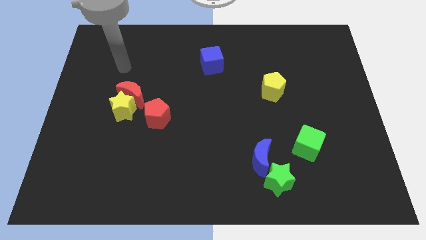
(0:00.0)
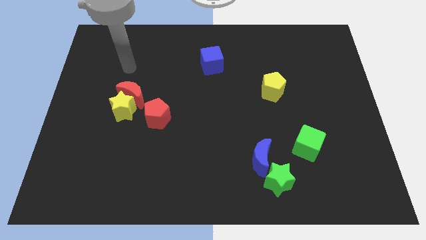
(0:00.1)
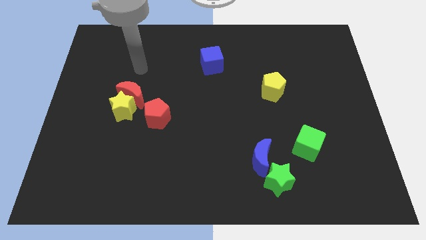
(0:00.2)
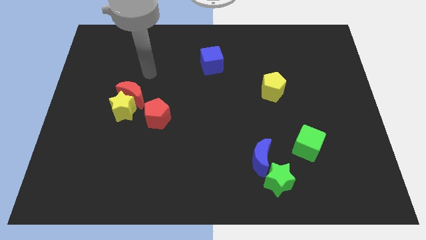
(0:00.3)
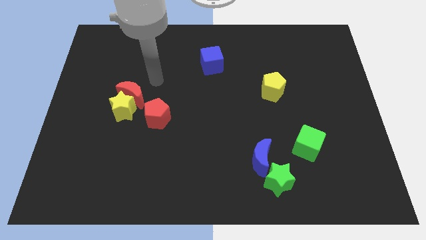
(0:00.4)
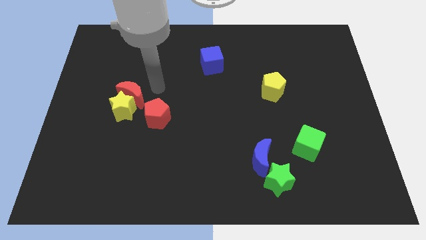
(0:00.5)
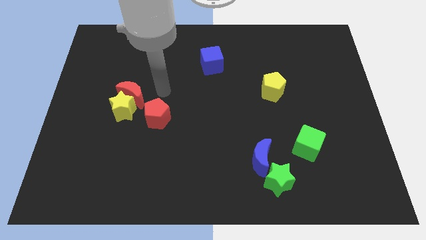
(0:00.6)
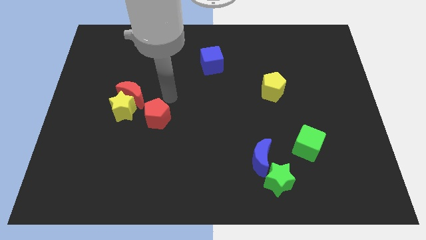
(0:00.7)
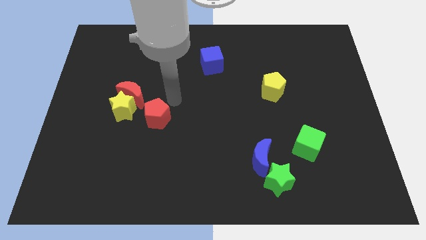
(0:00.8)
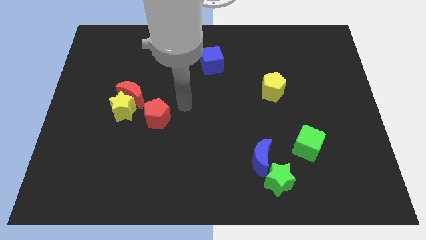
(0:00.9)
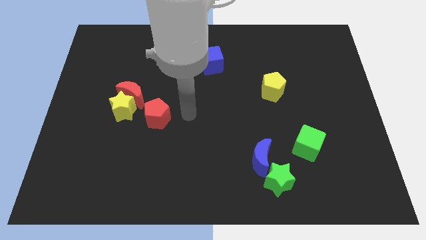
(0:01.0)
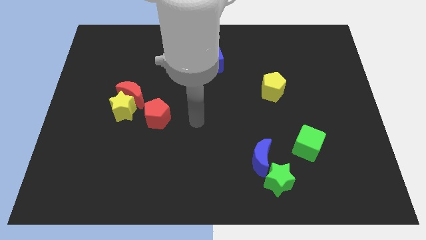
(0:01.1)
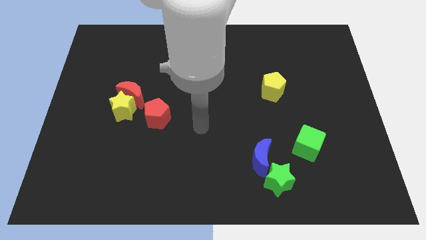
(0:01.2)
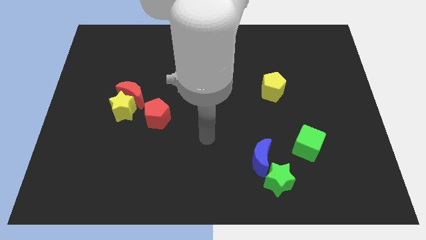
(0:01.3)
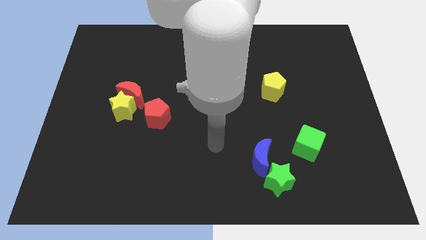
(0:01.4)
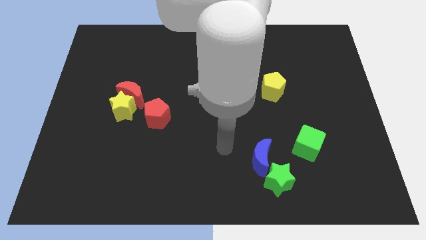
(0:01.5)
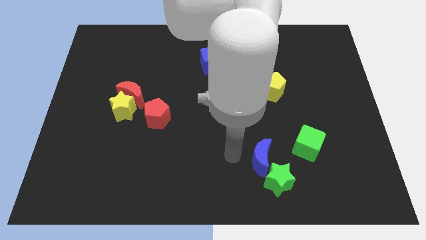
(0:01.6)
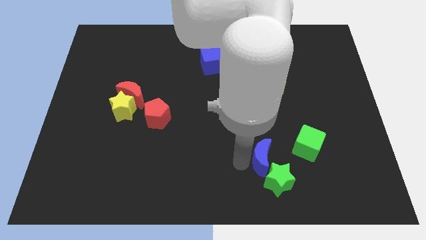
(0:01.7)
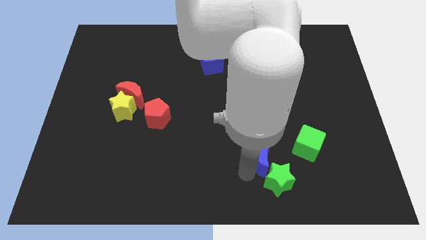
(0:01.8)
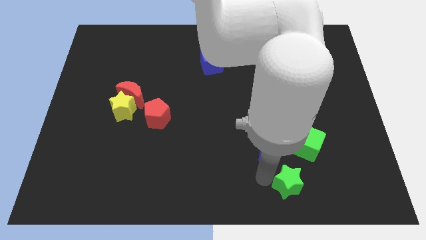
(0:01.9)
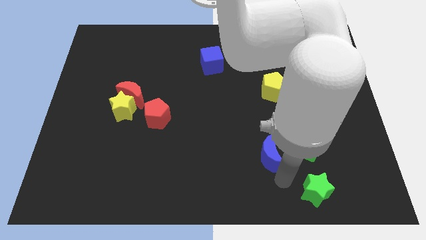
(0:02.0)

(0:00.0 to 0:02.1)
pull the blue moon apart from the green star

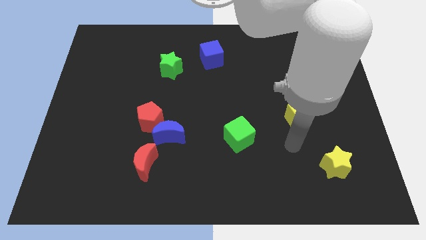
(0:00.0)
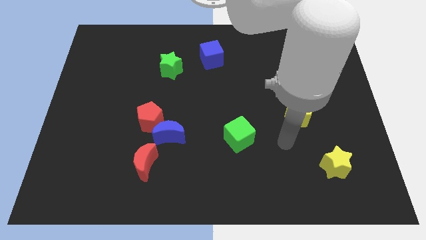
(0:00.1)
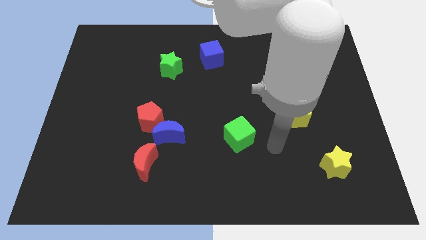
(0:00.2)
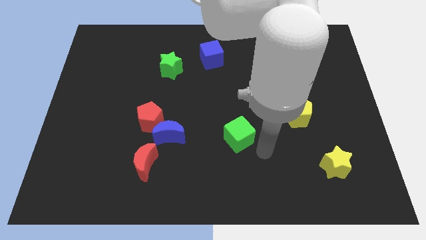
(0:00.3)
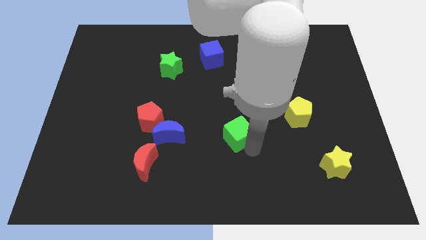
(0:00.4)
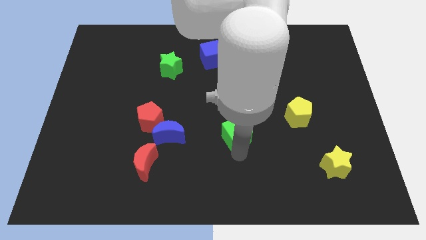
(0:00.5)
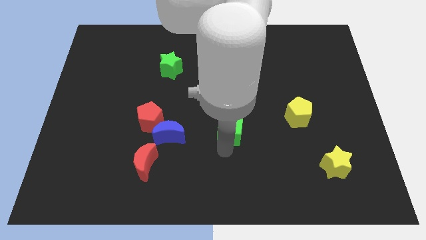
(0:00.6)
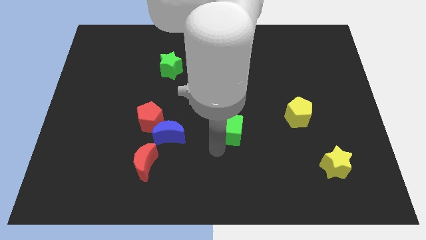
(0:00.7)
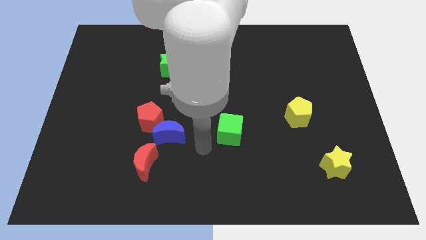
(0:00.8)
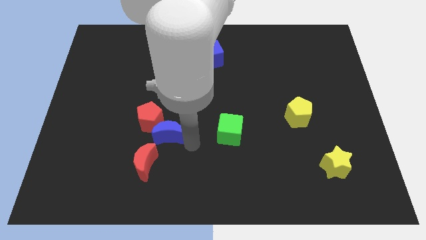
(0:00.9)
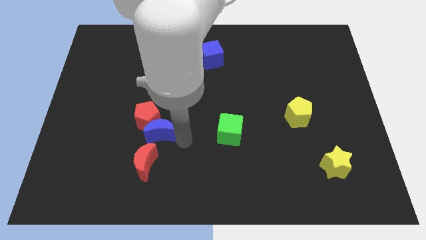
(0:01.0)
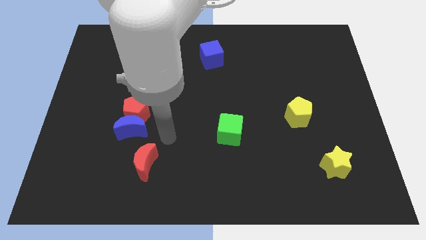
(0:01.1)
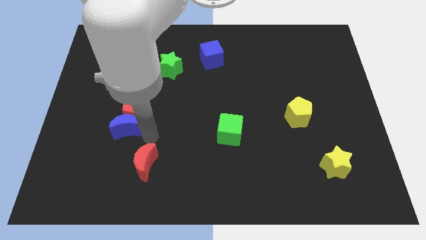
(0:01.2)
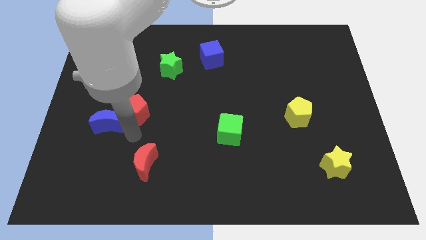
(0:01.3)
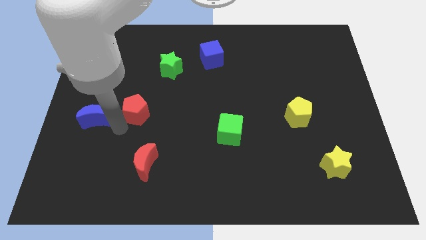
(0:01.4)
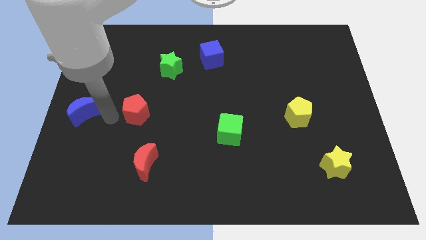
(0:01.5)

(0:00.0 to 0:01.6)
pull the red pentagon apart from the blue moon

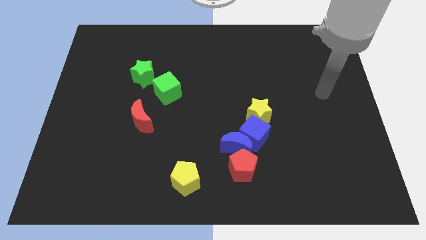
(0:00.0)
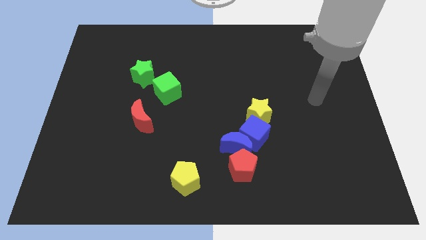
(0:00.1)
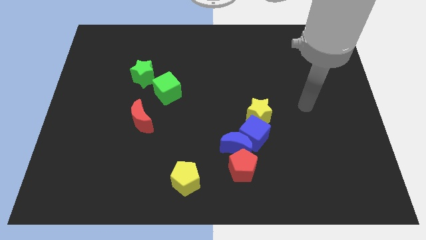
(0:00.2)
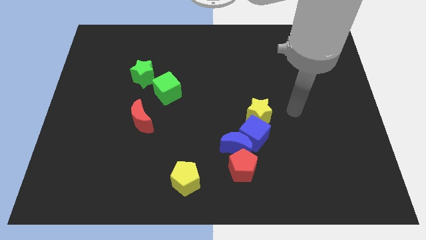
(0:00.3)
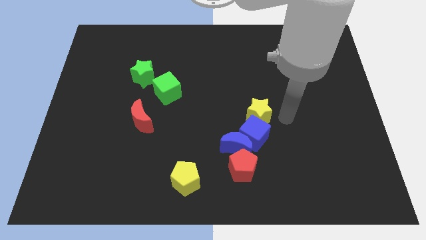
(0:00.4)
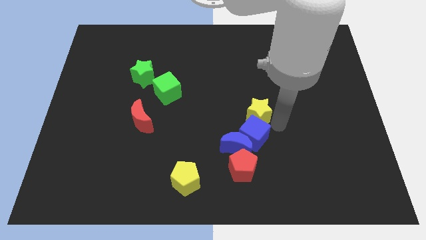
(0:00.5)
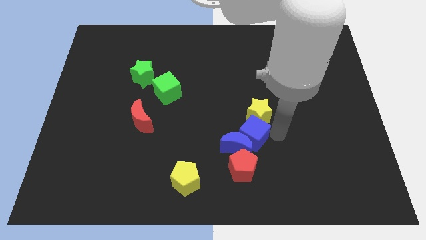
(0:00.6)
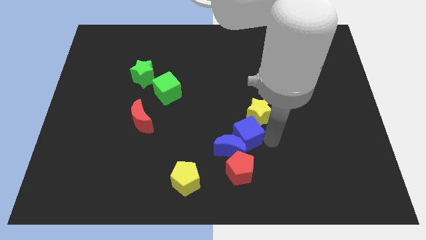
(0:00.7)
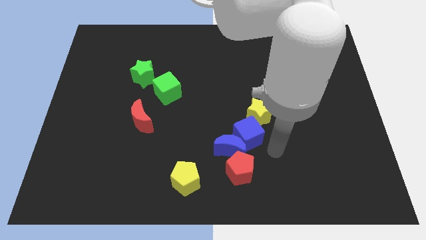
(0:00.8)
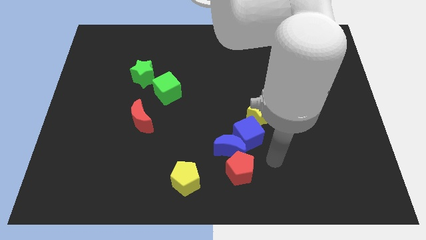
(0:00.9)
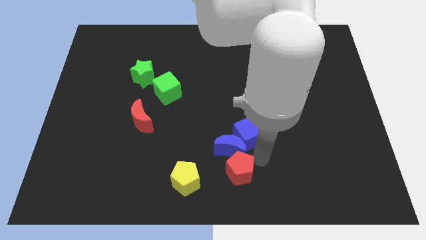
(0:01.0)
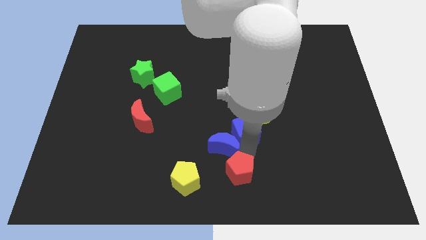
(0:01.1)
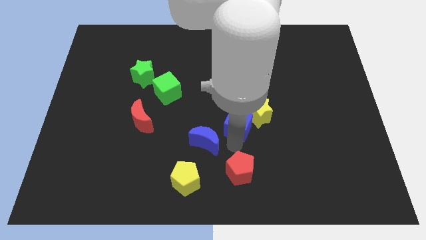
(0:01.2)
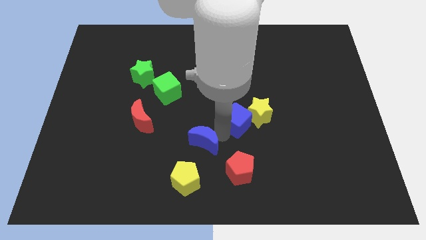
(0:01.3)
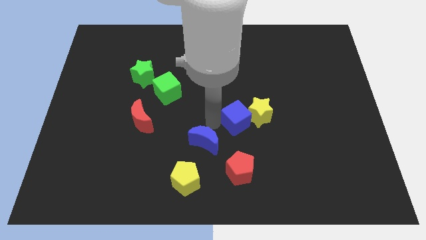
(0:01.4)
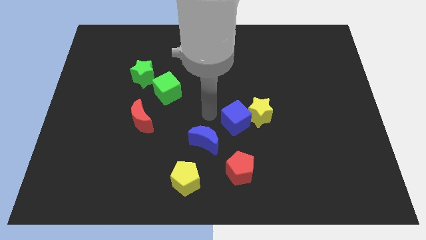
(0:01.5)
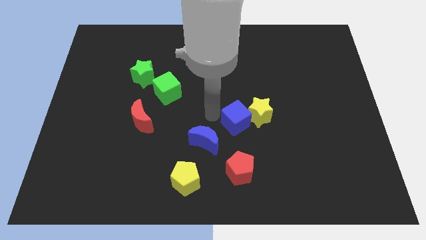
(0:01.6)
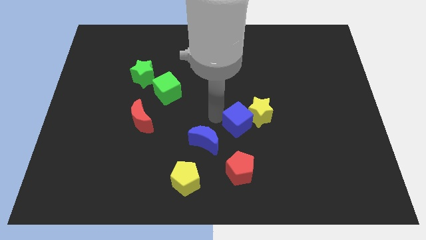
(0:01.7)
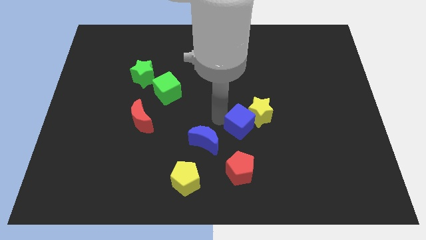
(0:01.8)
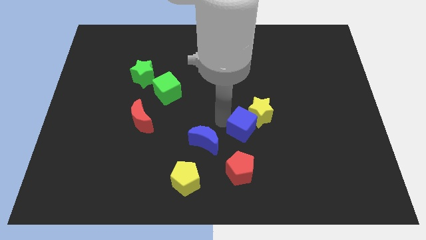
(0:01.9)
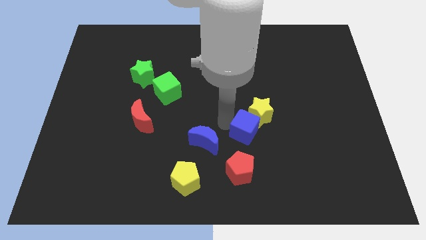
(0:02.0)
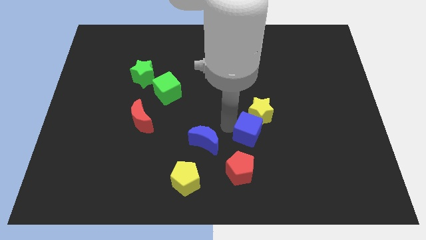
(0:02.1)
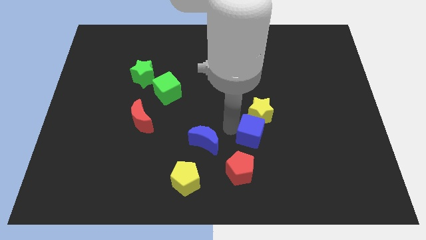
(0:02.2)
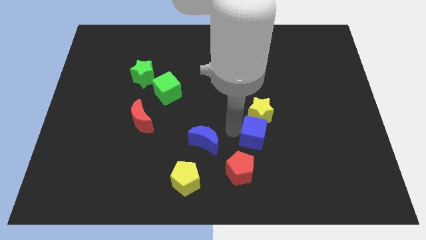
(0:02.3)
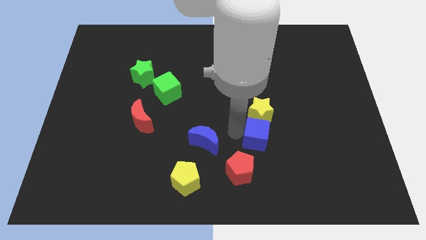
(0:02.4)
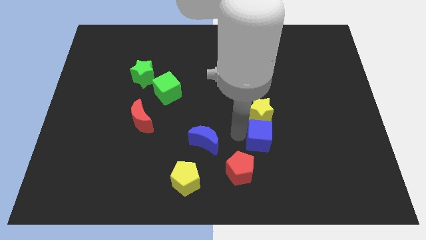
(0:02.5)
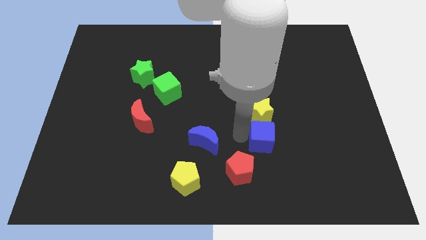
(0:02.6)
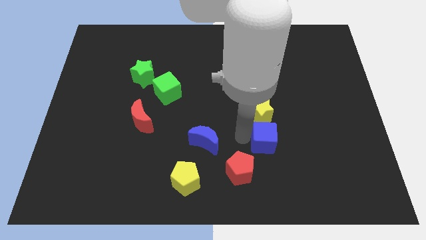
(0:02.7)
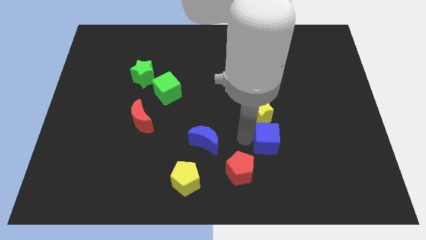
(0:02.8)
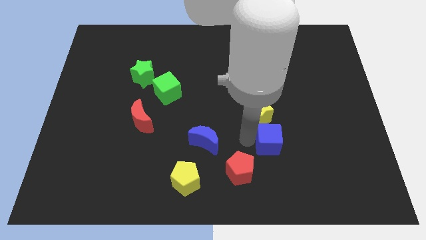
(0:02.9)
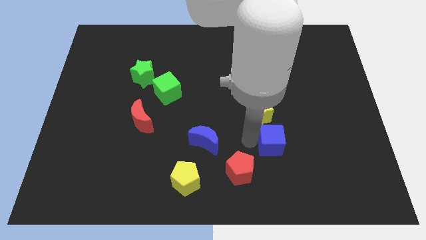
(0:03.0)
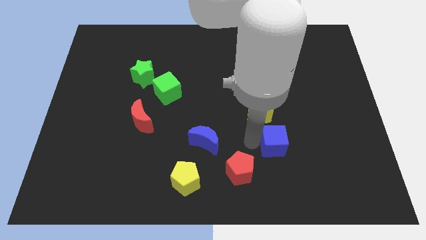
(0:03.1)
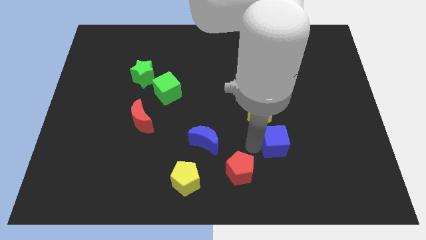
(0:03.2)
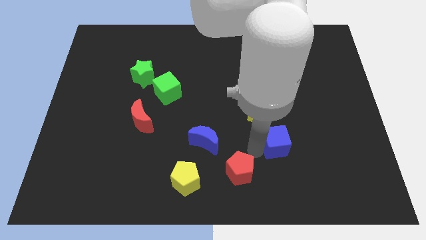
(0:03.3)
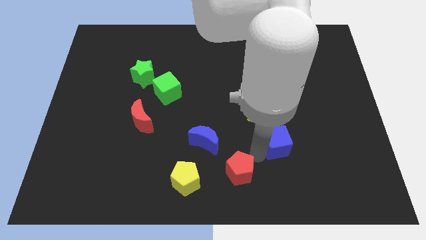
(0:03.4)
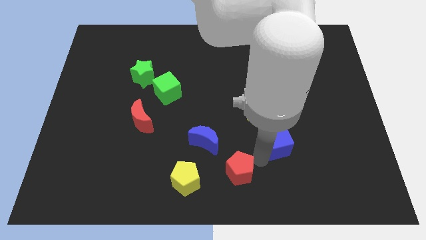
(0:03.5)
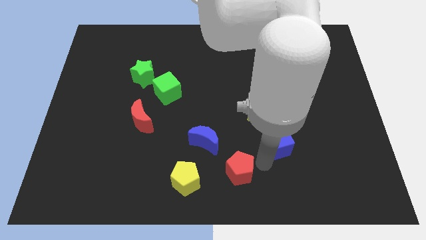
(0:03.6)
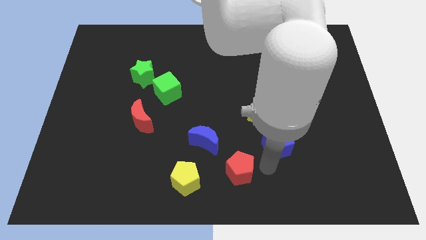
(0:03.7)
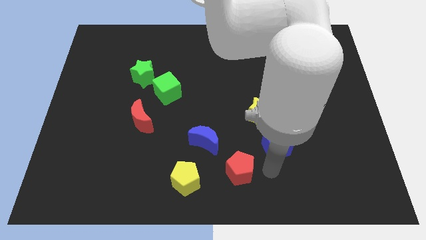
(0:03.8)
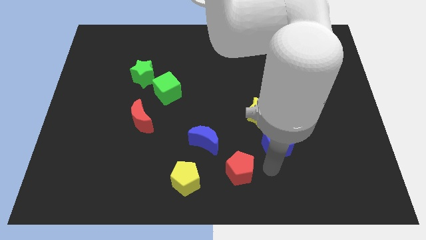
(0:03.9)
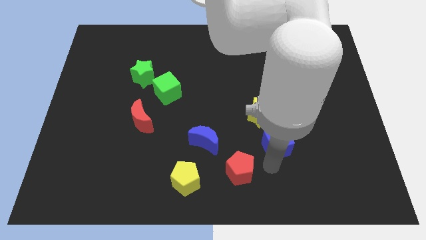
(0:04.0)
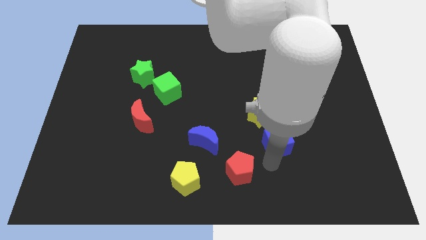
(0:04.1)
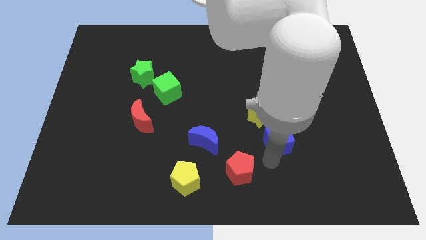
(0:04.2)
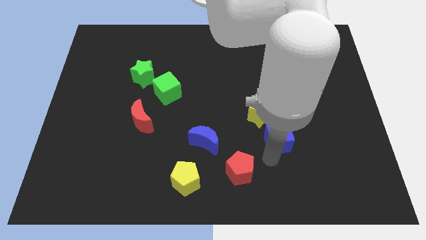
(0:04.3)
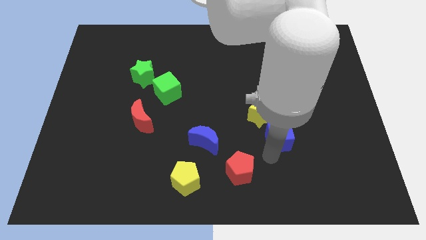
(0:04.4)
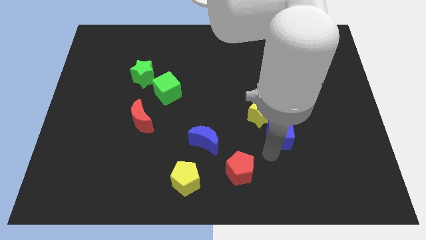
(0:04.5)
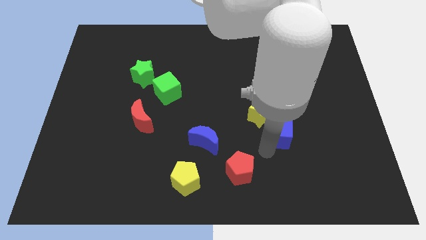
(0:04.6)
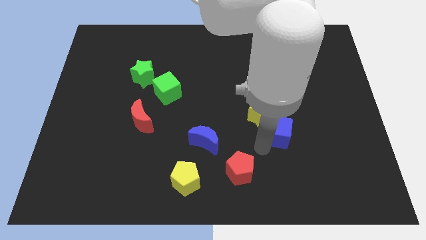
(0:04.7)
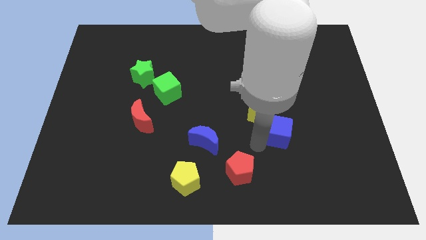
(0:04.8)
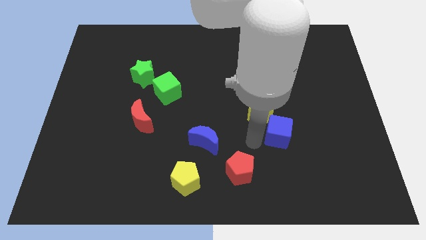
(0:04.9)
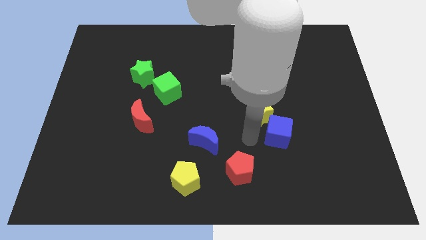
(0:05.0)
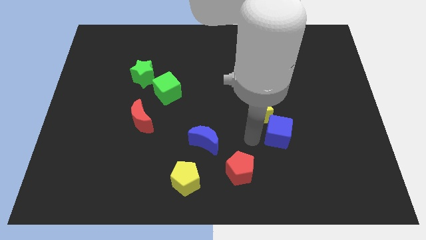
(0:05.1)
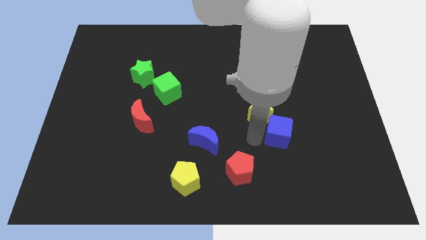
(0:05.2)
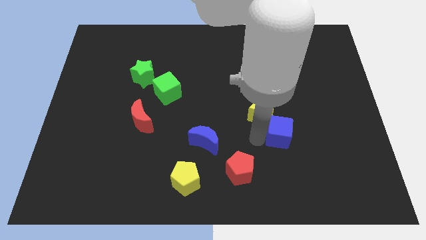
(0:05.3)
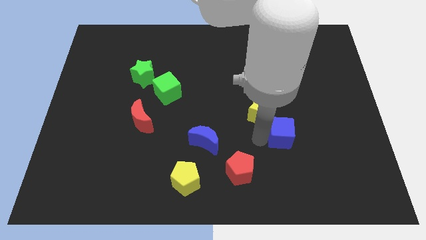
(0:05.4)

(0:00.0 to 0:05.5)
move the blue cube away from the blue moon, yellow star, and red pentagon

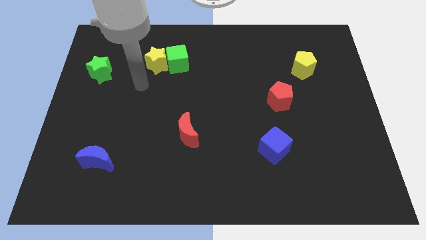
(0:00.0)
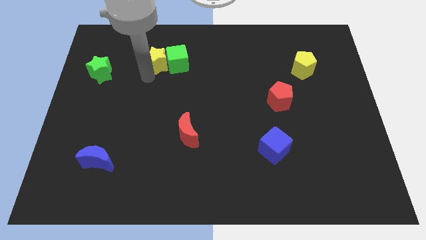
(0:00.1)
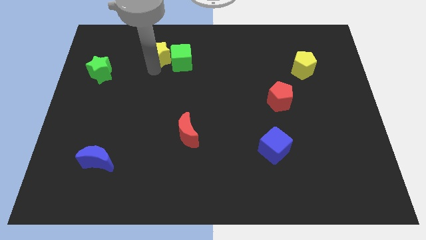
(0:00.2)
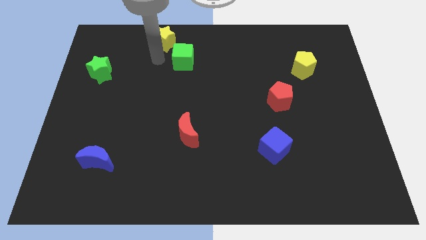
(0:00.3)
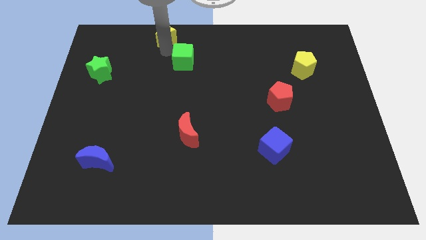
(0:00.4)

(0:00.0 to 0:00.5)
move the green cube away from the yellow star
